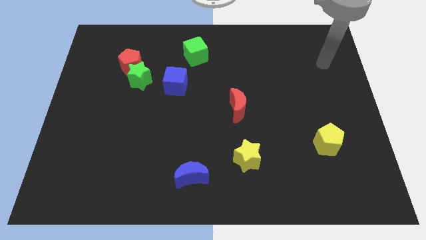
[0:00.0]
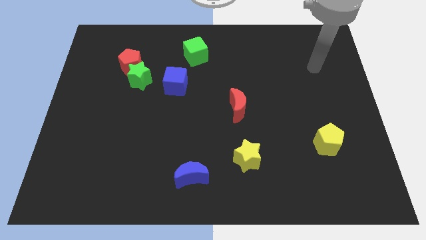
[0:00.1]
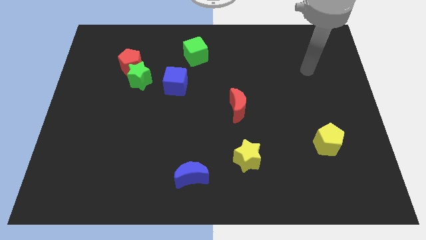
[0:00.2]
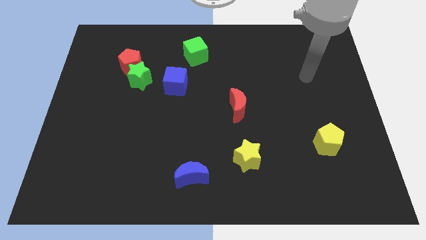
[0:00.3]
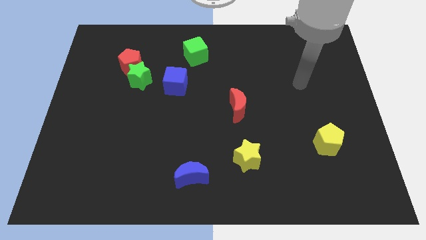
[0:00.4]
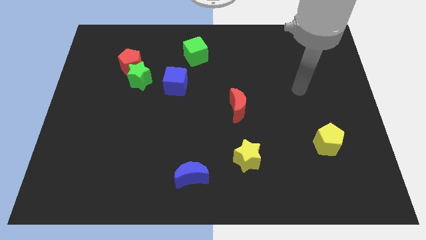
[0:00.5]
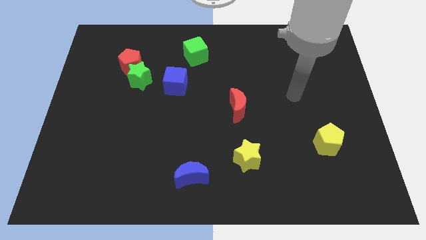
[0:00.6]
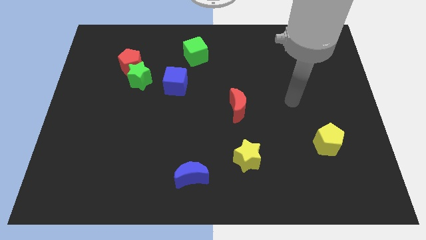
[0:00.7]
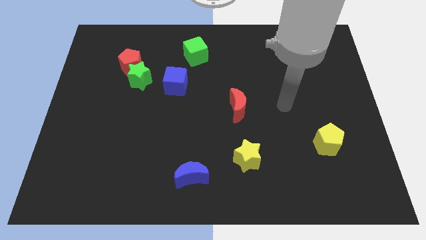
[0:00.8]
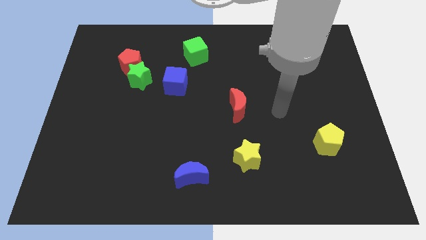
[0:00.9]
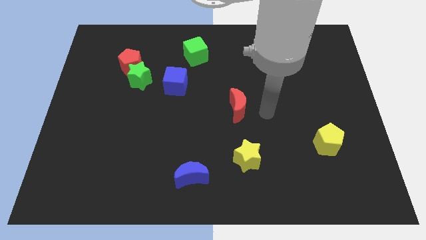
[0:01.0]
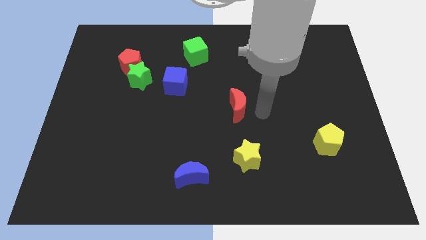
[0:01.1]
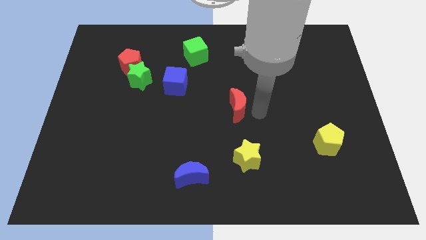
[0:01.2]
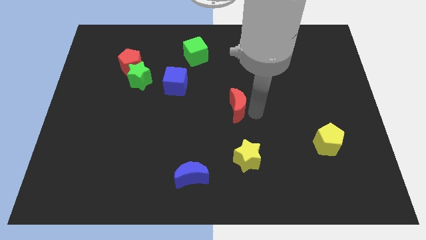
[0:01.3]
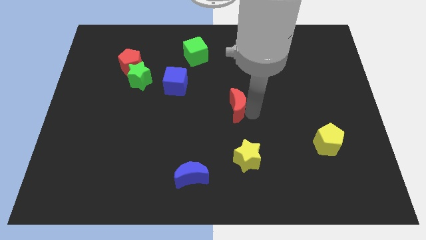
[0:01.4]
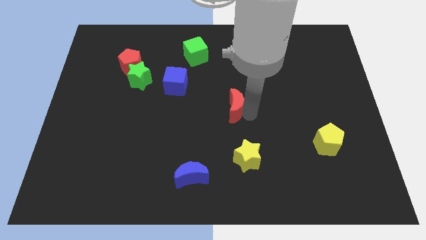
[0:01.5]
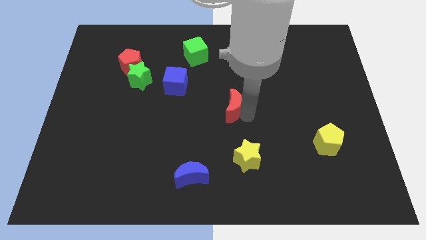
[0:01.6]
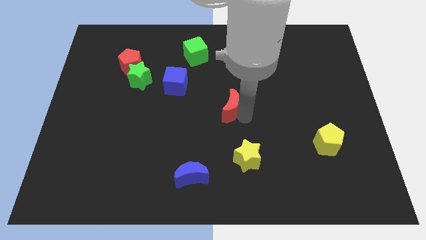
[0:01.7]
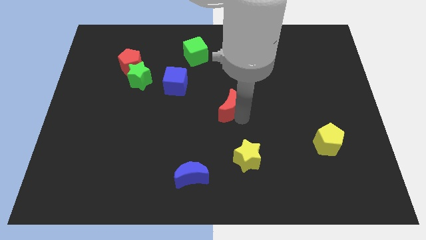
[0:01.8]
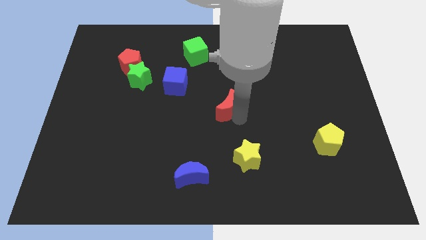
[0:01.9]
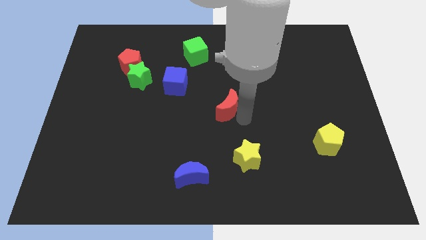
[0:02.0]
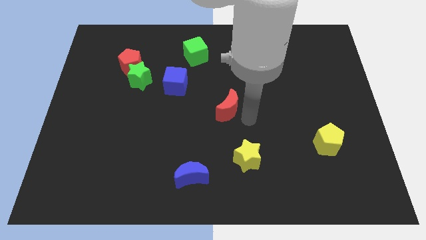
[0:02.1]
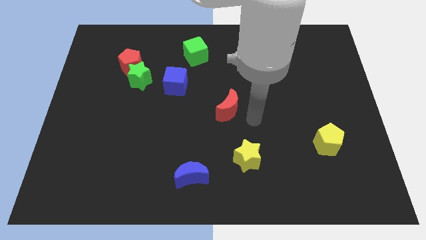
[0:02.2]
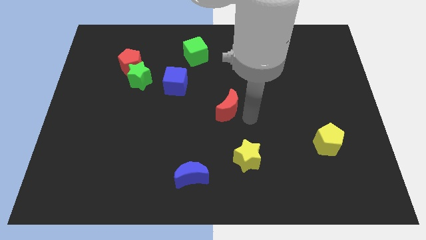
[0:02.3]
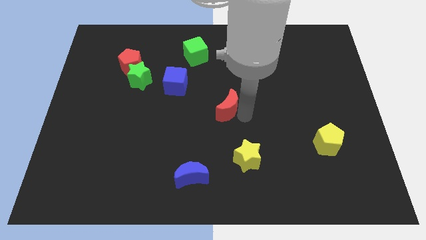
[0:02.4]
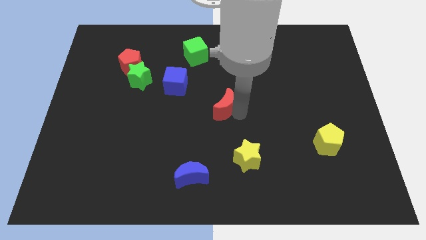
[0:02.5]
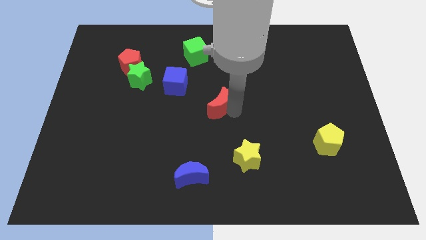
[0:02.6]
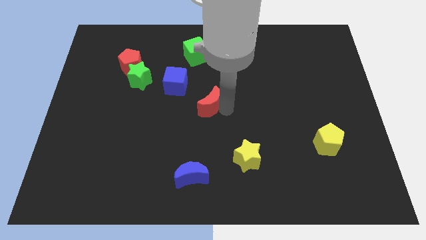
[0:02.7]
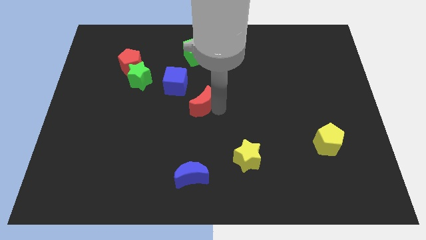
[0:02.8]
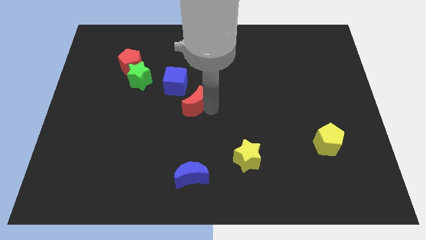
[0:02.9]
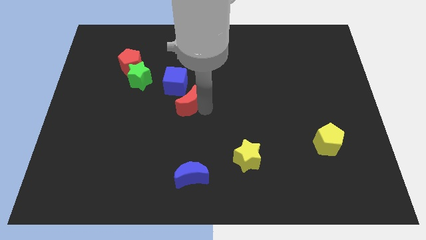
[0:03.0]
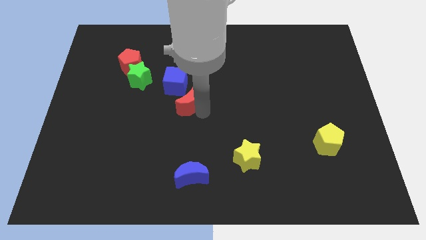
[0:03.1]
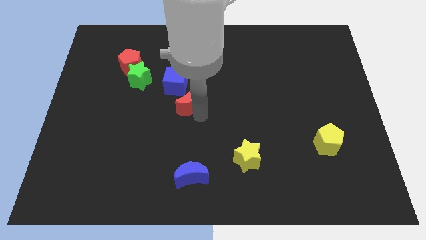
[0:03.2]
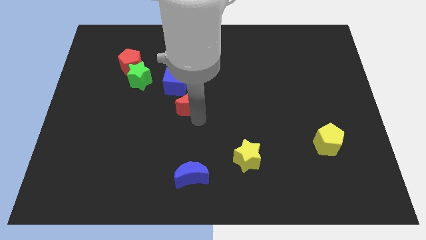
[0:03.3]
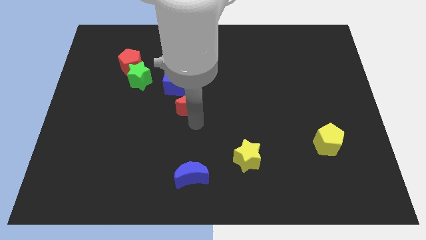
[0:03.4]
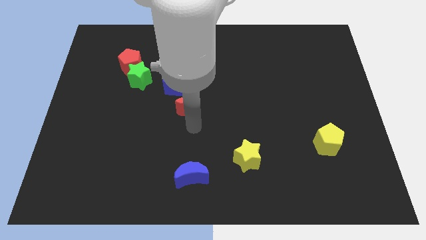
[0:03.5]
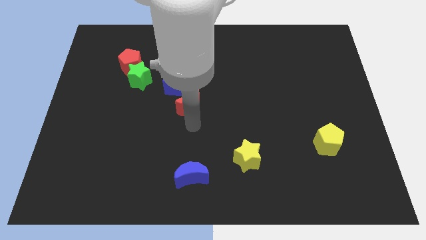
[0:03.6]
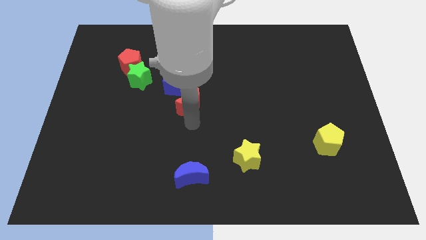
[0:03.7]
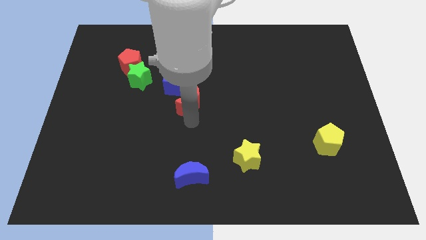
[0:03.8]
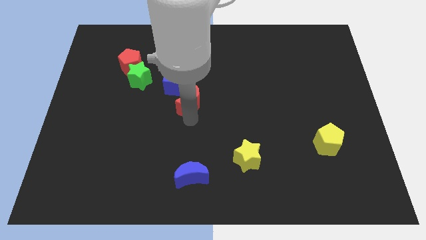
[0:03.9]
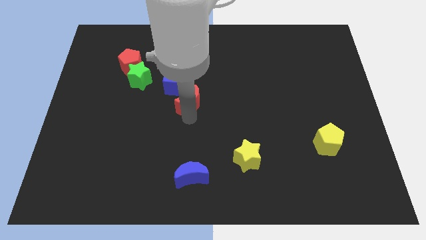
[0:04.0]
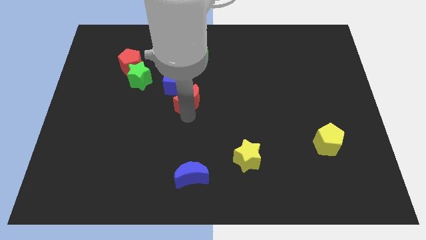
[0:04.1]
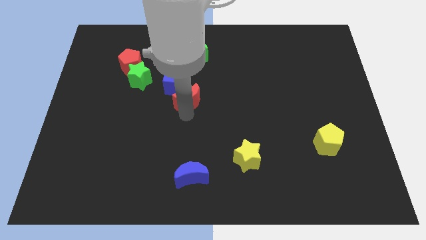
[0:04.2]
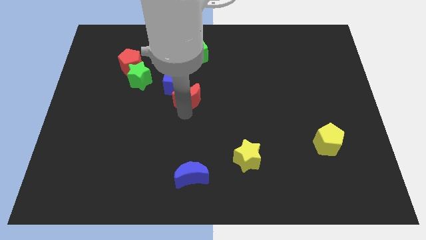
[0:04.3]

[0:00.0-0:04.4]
put the red moon close to the blue cube

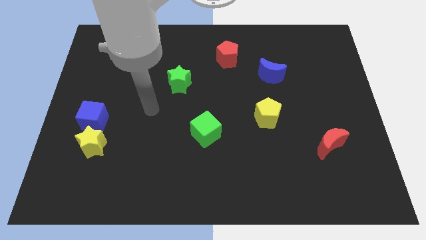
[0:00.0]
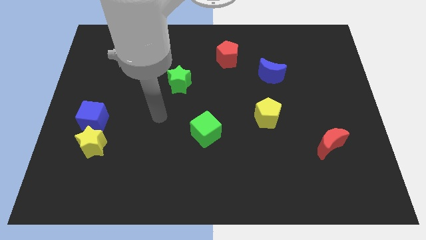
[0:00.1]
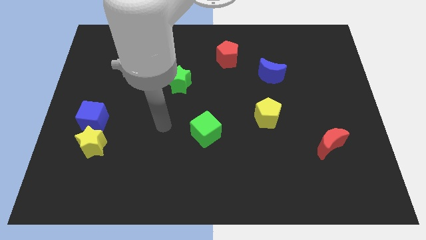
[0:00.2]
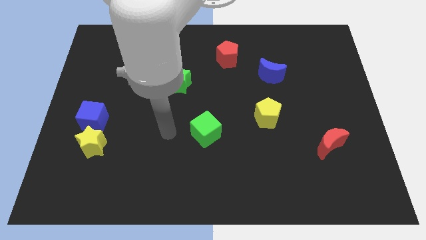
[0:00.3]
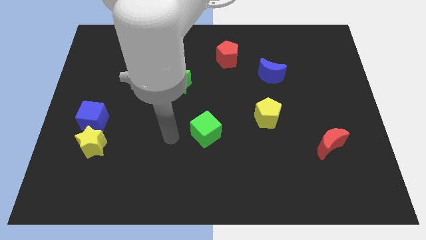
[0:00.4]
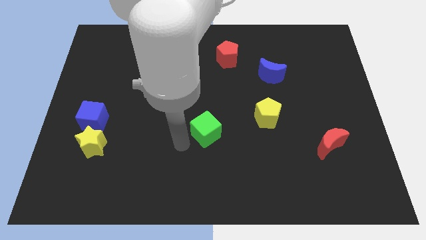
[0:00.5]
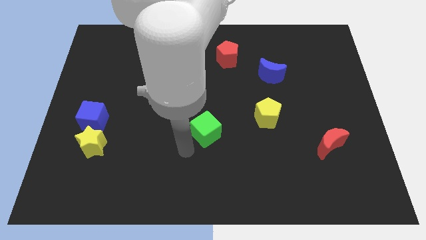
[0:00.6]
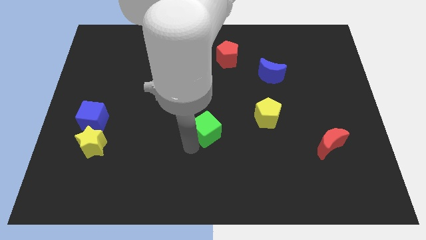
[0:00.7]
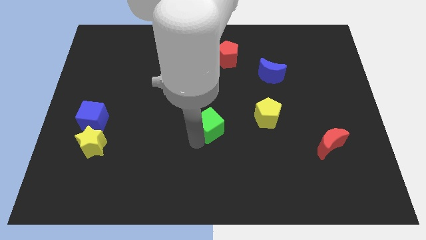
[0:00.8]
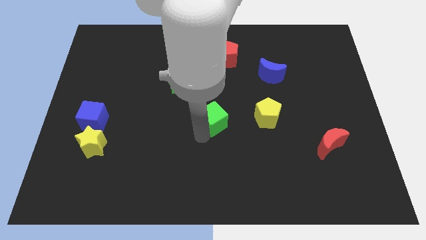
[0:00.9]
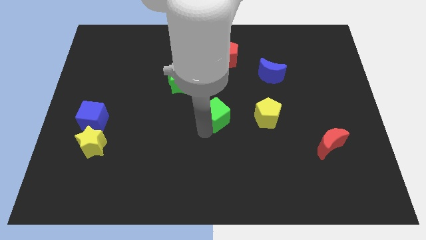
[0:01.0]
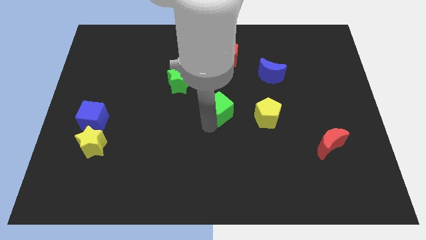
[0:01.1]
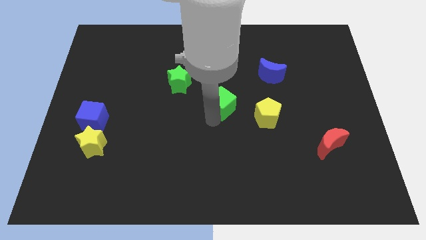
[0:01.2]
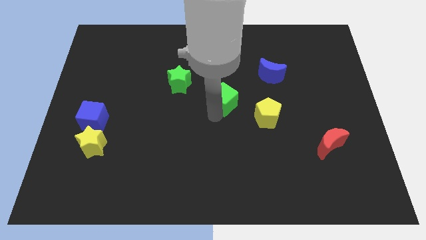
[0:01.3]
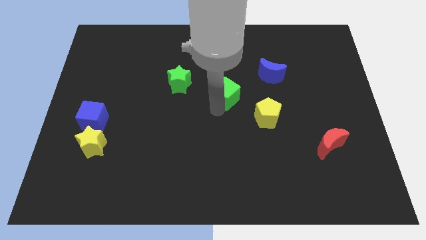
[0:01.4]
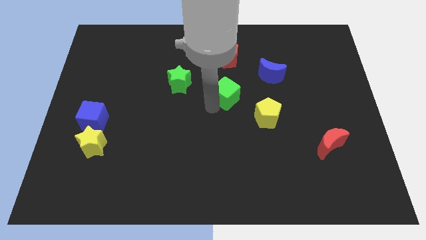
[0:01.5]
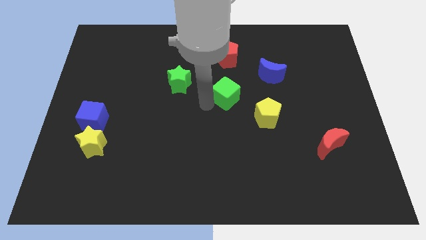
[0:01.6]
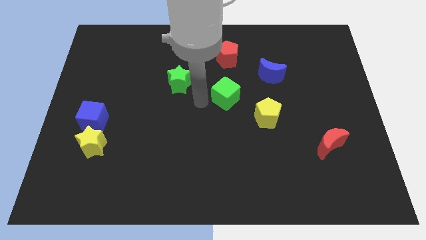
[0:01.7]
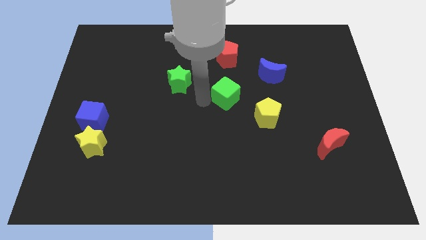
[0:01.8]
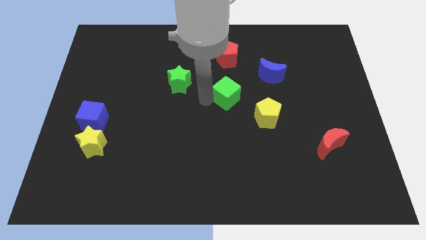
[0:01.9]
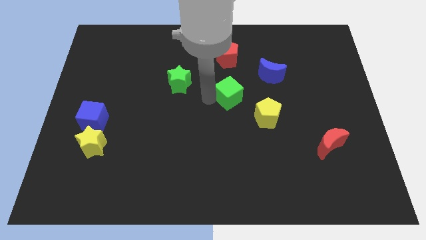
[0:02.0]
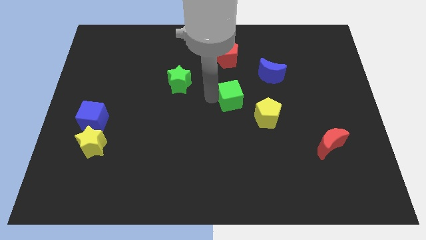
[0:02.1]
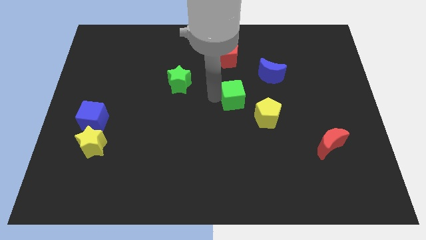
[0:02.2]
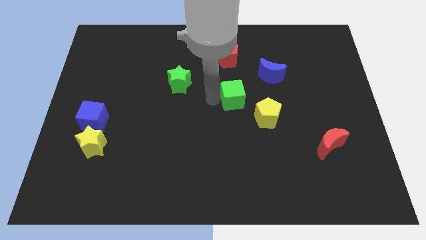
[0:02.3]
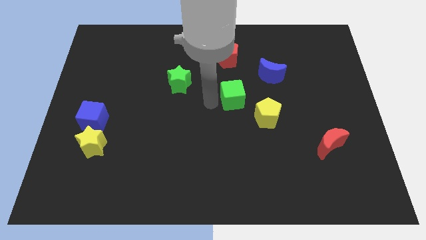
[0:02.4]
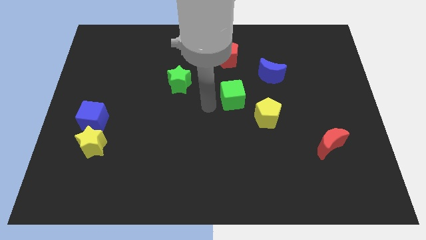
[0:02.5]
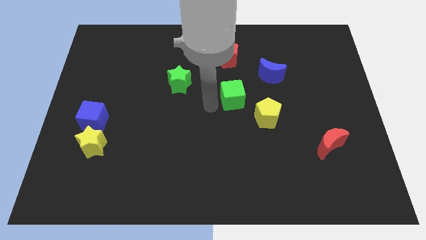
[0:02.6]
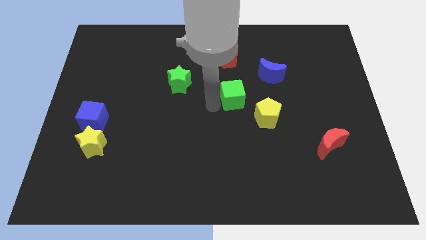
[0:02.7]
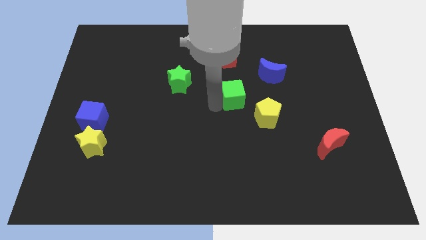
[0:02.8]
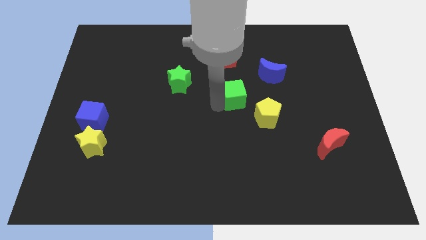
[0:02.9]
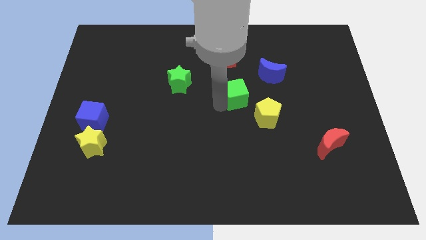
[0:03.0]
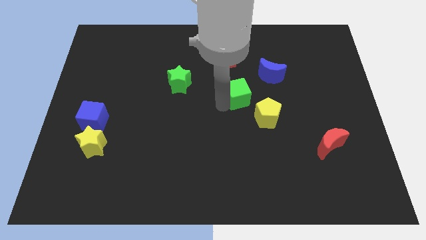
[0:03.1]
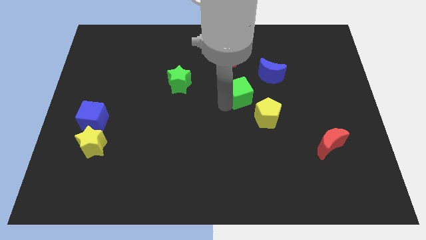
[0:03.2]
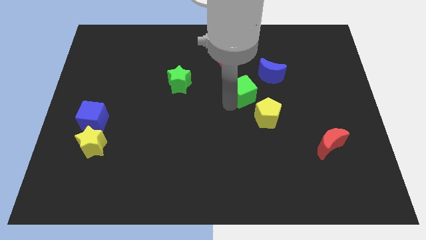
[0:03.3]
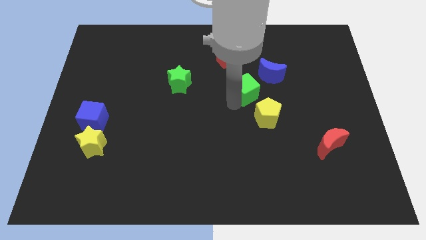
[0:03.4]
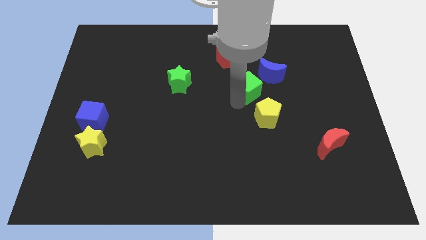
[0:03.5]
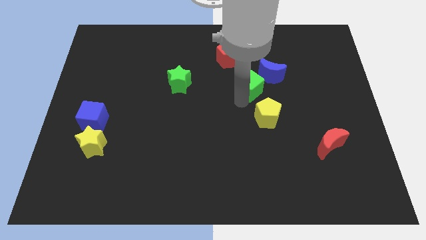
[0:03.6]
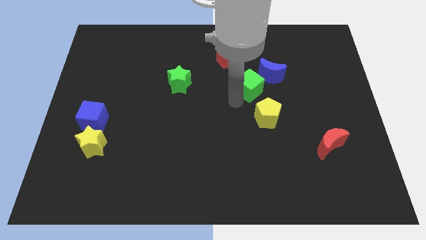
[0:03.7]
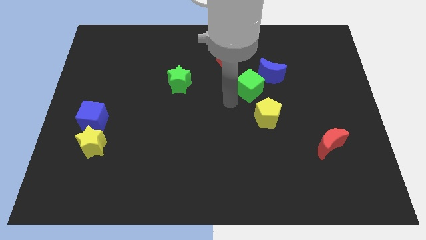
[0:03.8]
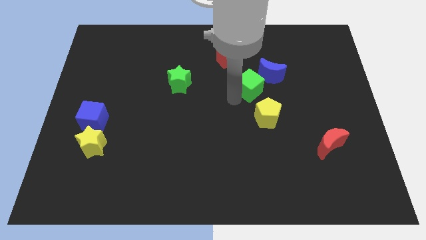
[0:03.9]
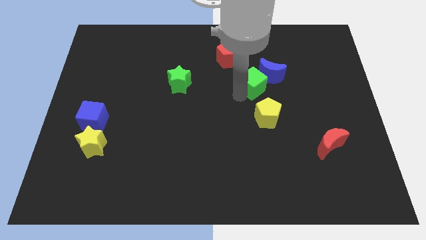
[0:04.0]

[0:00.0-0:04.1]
move the green cube towards the blue moon
